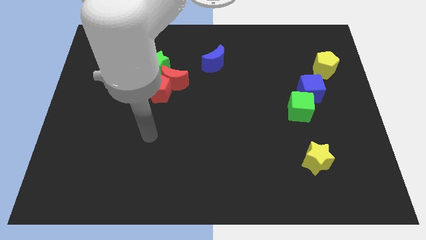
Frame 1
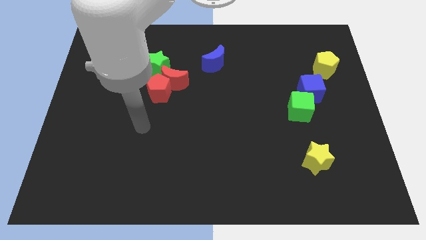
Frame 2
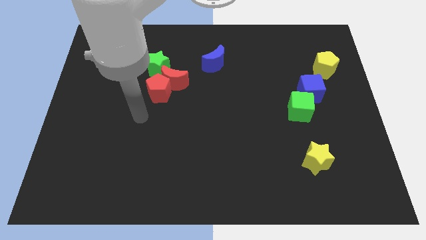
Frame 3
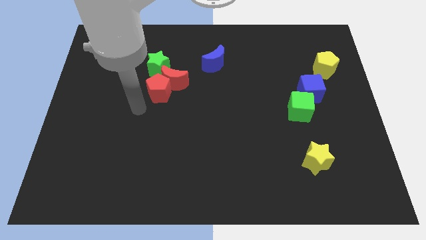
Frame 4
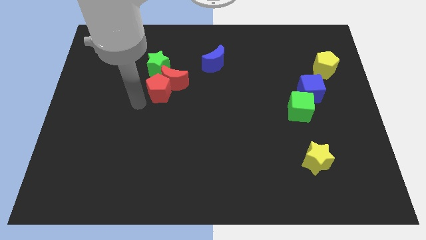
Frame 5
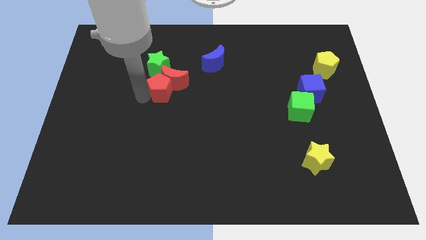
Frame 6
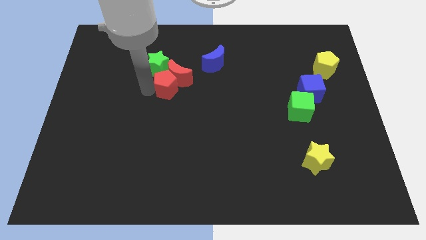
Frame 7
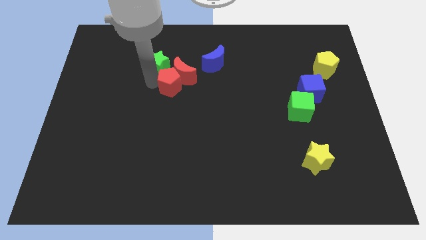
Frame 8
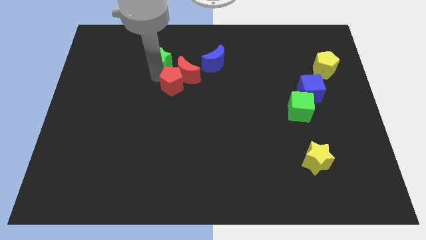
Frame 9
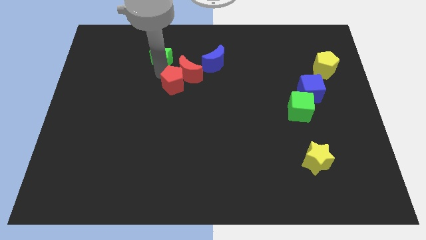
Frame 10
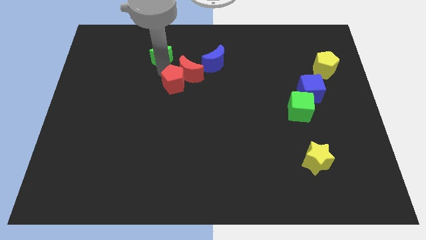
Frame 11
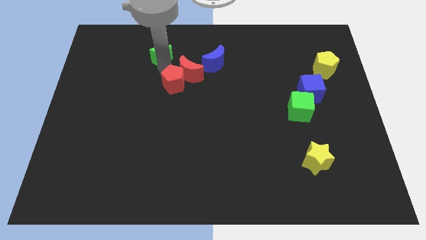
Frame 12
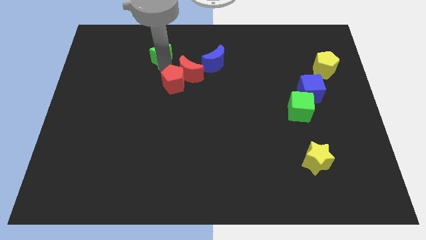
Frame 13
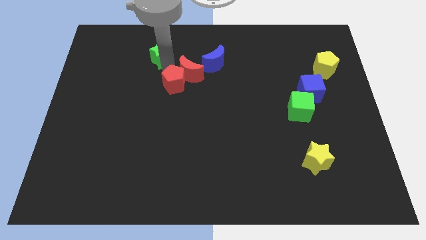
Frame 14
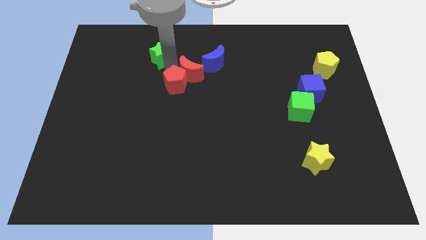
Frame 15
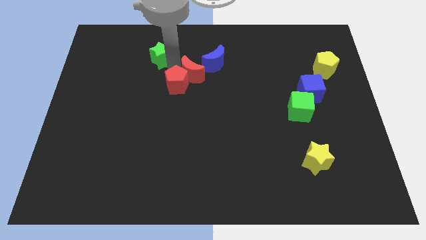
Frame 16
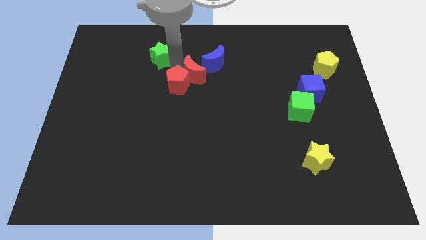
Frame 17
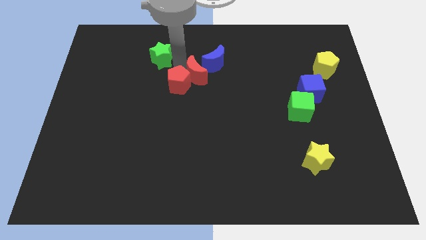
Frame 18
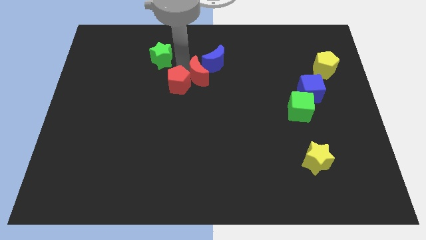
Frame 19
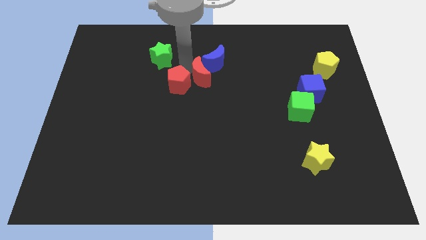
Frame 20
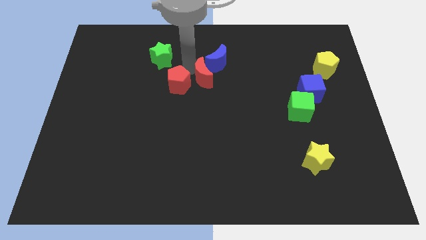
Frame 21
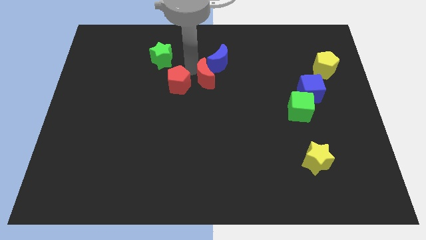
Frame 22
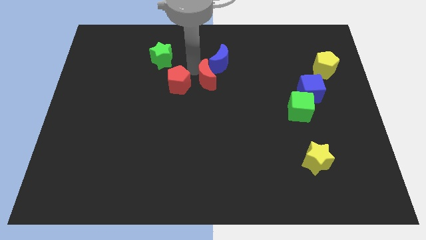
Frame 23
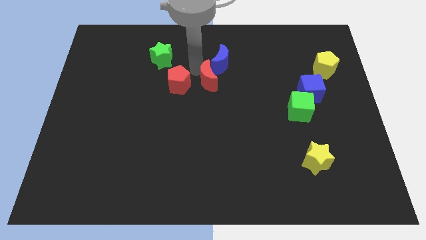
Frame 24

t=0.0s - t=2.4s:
separate the red moon from the red pentagon and green star

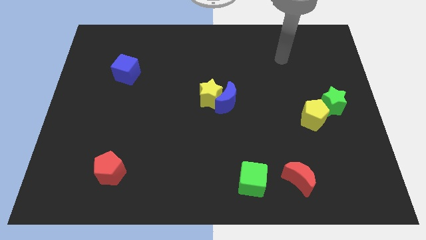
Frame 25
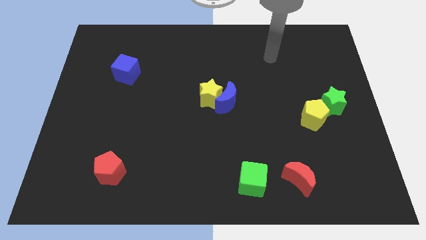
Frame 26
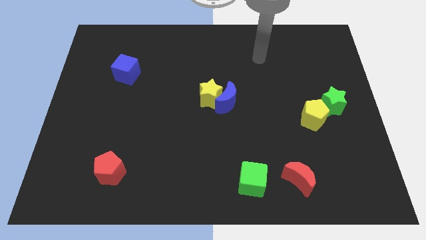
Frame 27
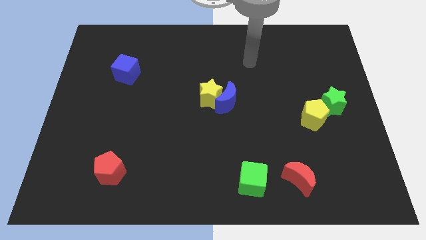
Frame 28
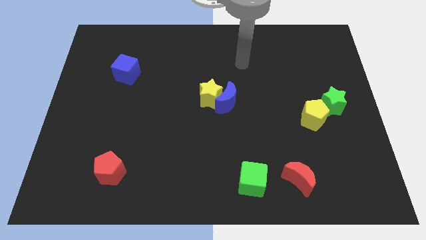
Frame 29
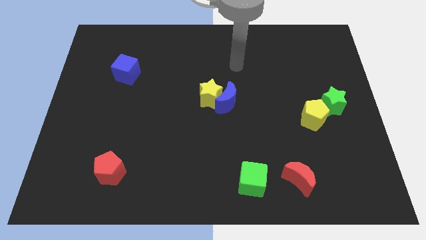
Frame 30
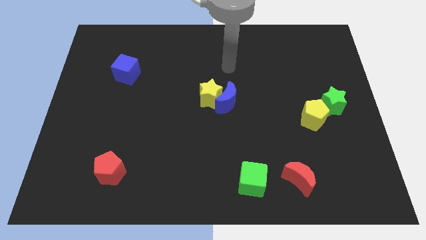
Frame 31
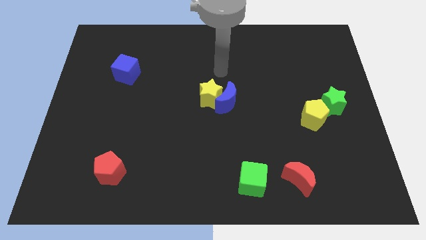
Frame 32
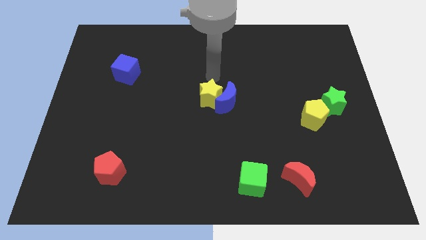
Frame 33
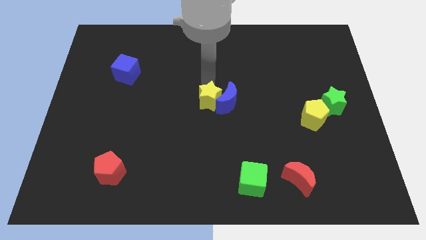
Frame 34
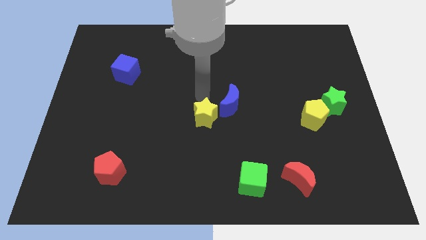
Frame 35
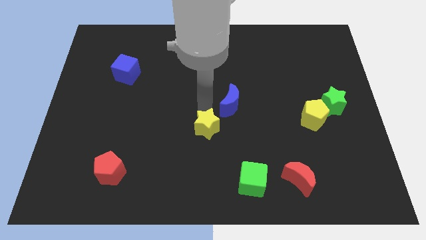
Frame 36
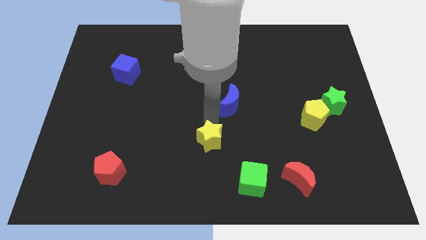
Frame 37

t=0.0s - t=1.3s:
pull the blue moon apart from the yellow star

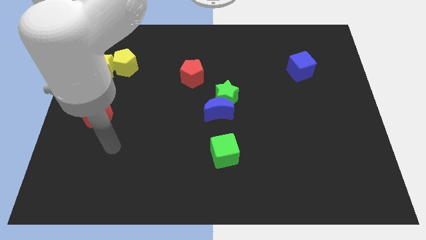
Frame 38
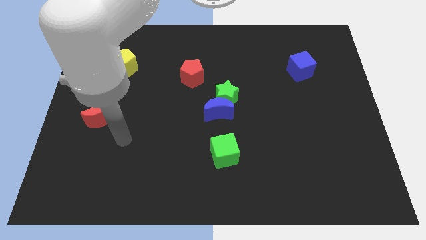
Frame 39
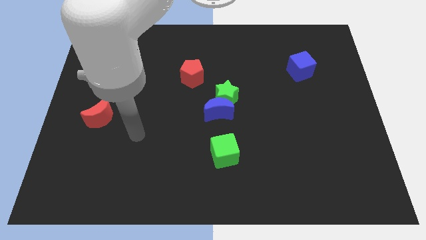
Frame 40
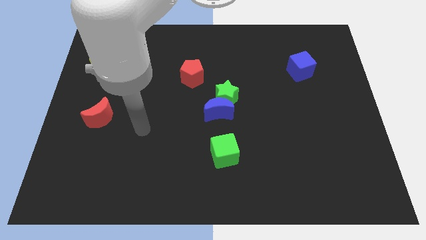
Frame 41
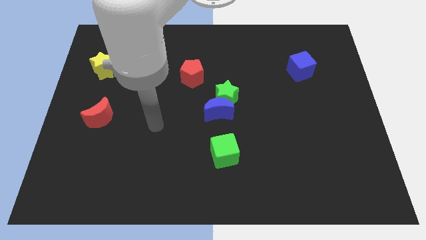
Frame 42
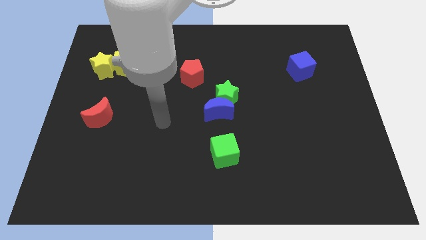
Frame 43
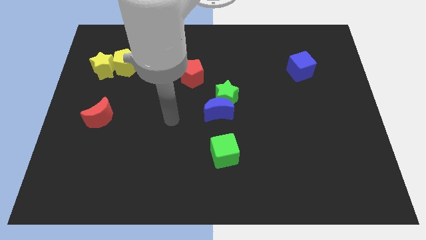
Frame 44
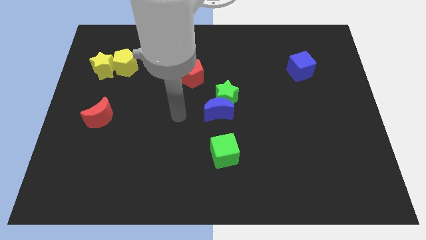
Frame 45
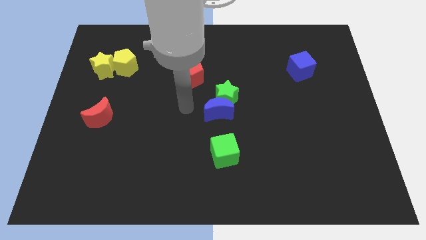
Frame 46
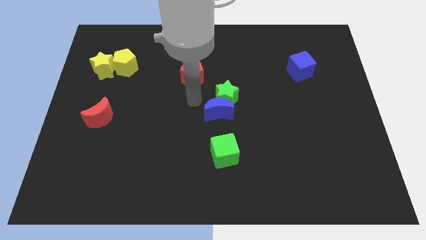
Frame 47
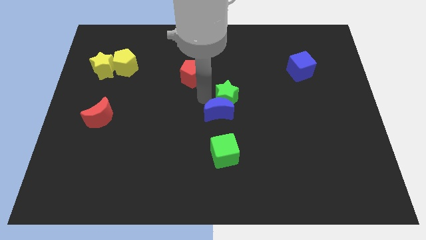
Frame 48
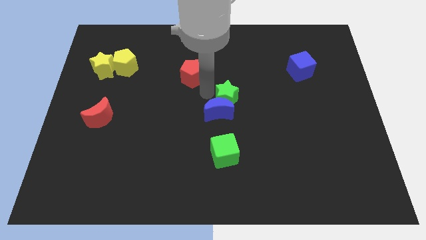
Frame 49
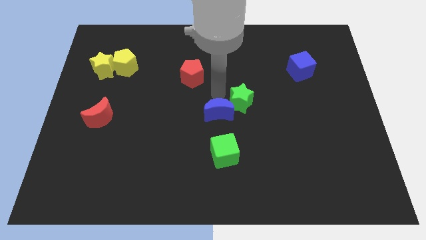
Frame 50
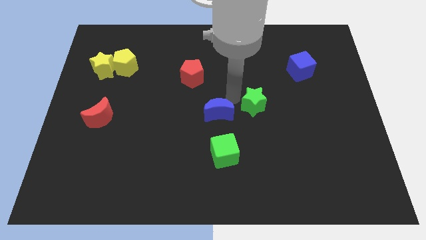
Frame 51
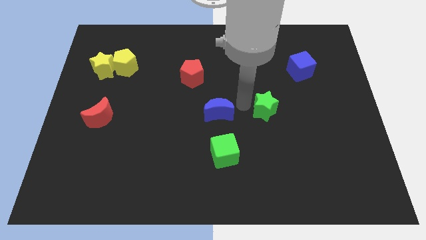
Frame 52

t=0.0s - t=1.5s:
separate the blue moon from the green star

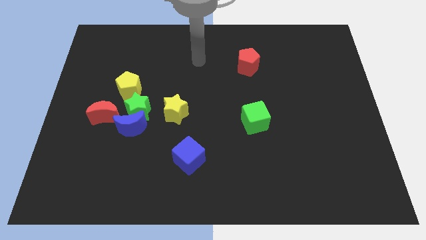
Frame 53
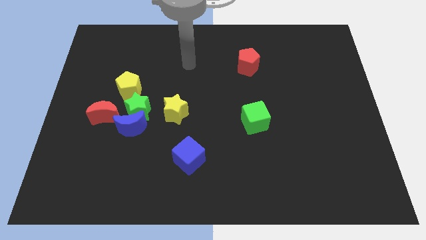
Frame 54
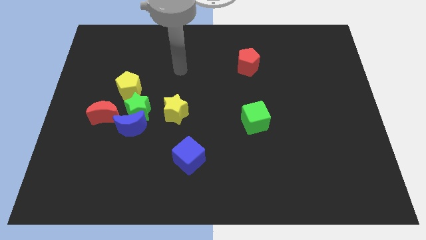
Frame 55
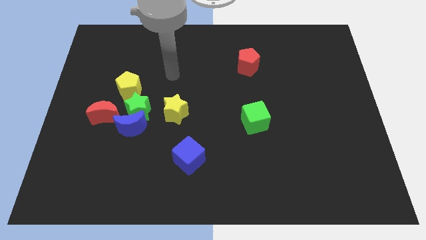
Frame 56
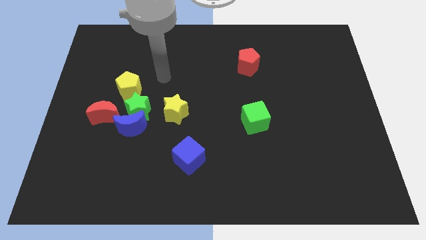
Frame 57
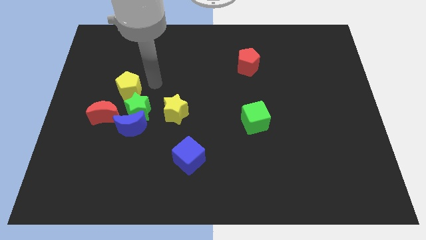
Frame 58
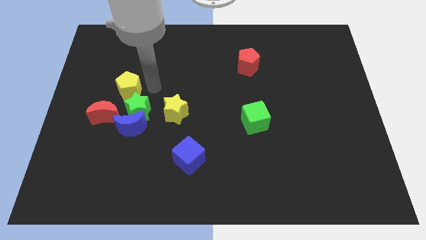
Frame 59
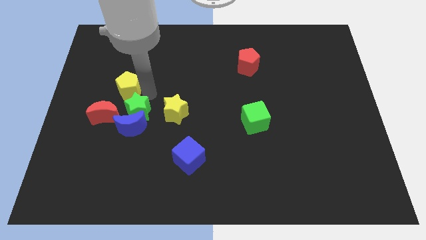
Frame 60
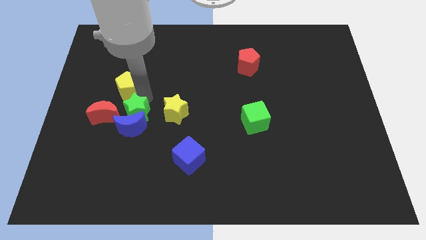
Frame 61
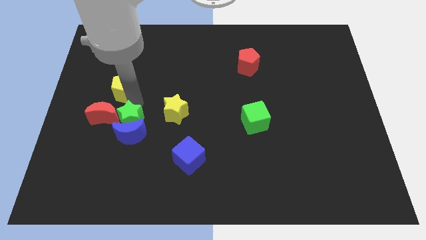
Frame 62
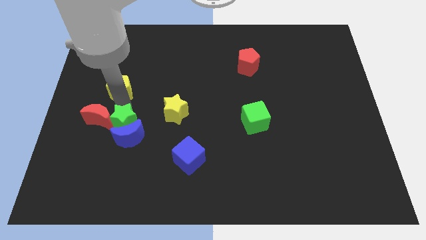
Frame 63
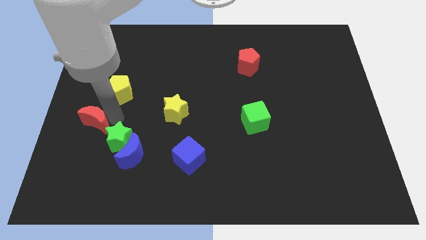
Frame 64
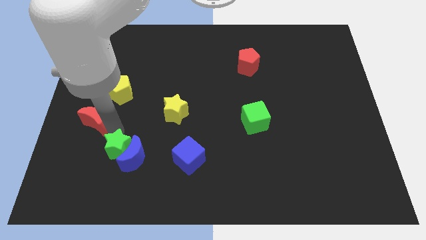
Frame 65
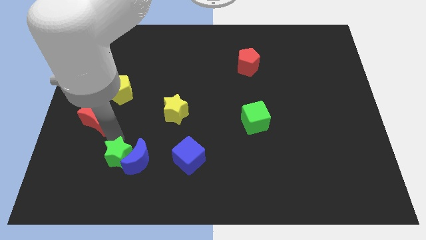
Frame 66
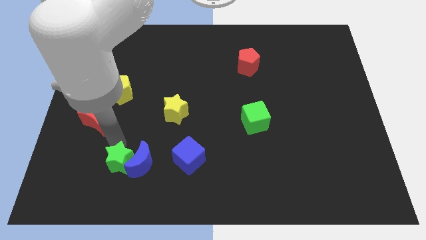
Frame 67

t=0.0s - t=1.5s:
move the blue moon away from the green star and red moon

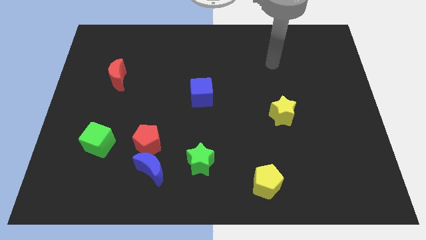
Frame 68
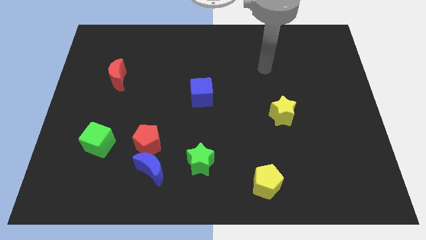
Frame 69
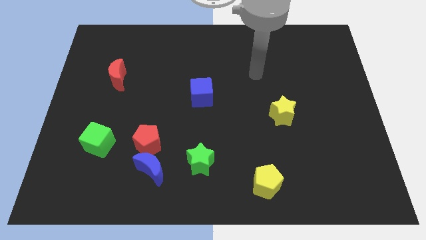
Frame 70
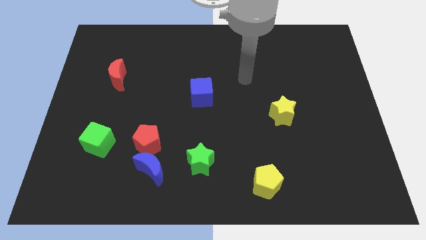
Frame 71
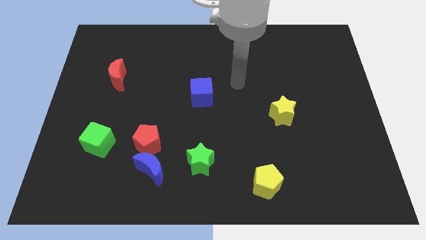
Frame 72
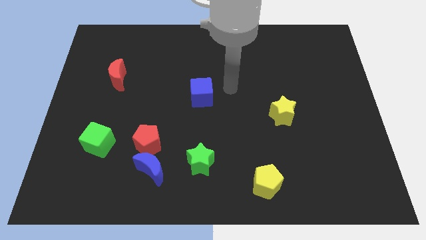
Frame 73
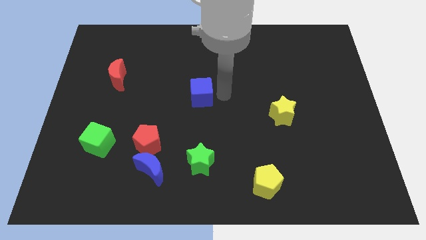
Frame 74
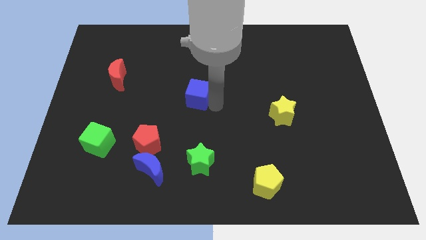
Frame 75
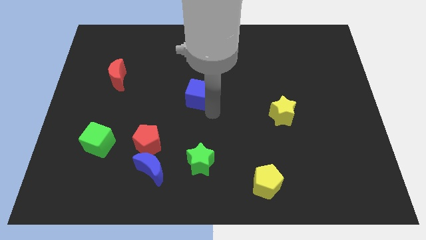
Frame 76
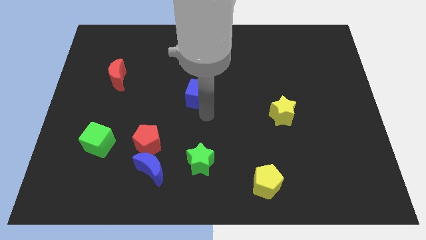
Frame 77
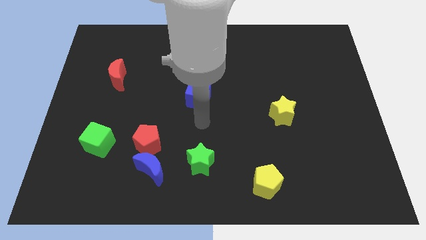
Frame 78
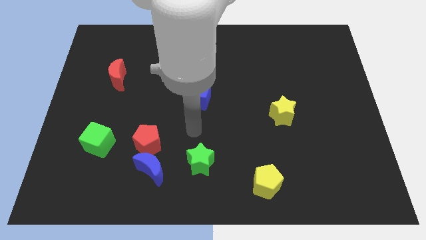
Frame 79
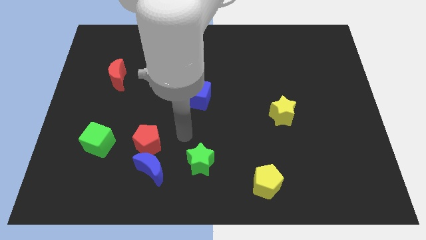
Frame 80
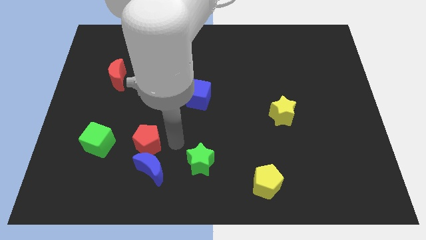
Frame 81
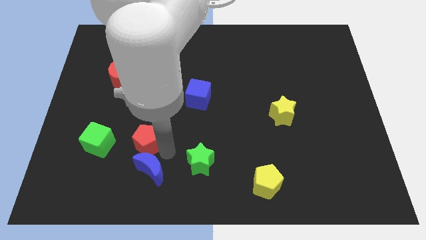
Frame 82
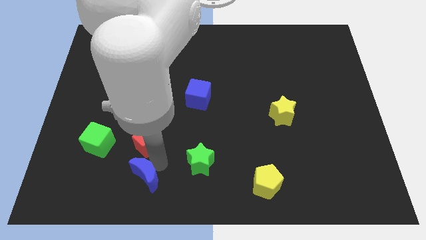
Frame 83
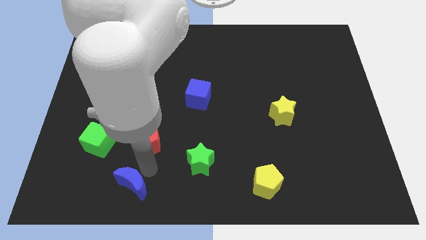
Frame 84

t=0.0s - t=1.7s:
pull the red pentagon apart from the blue moon

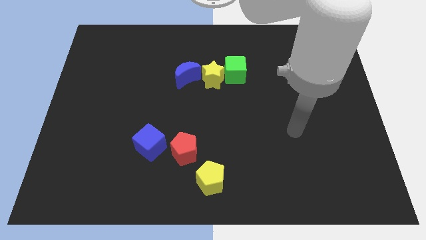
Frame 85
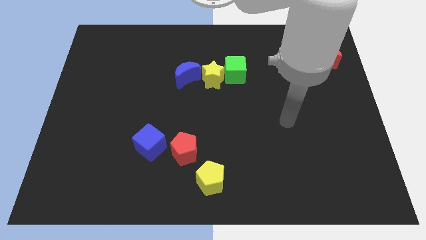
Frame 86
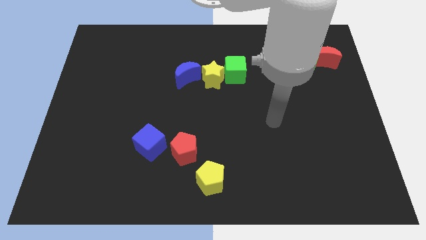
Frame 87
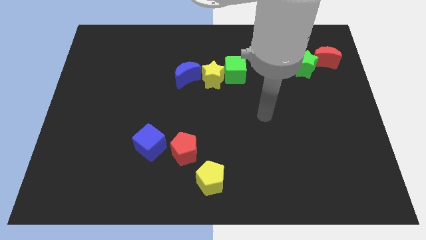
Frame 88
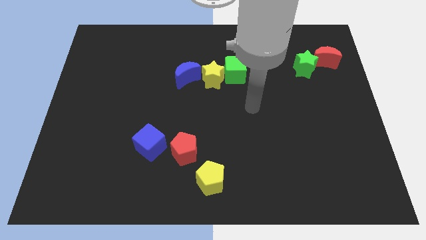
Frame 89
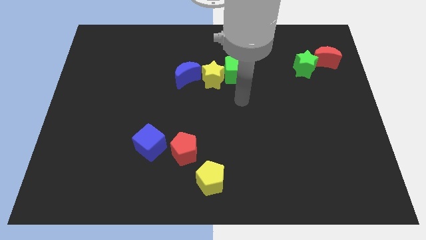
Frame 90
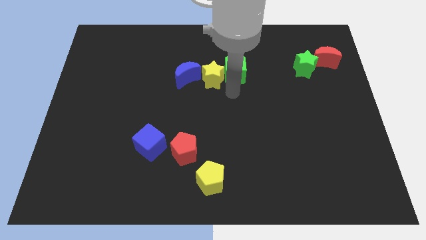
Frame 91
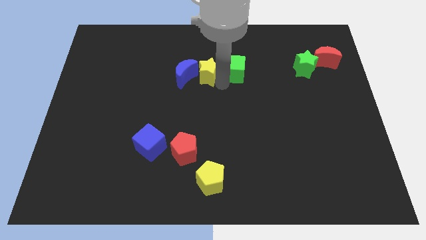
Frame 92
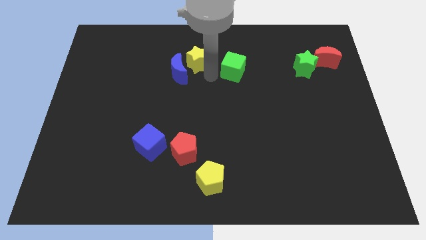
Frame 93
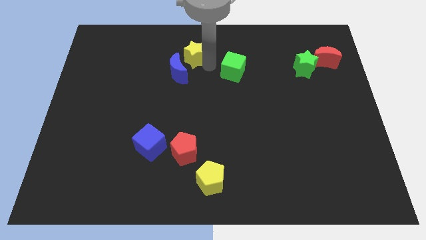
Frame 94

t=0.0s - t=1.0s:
move the green cube away from the yellow star

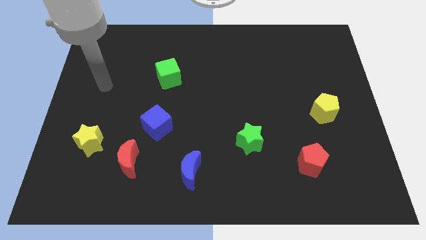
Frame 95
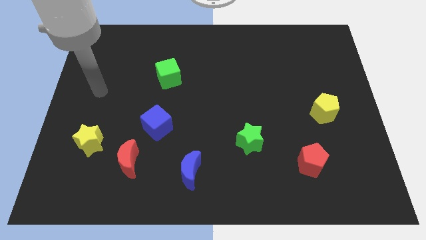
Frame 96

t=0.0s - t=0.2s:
pull the red moon apart from the yellow star
